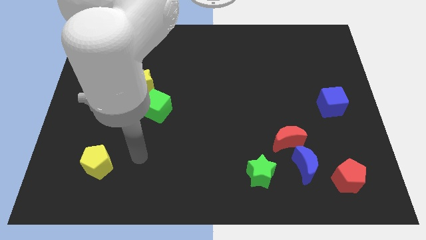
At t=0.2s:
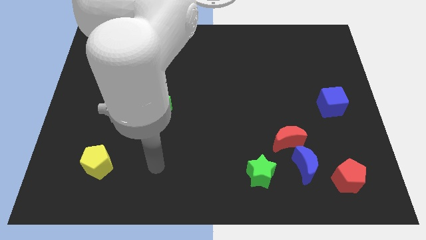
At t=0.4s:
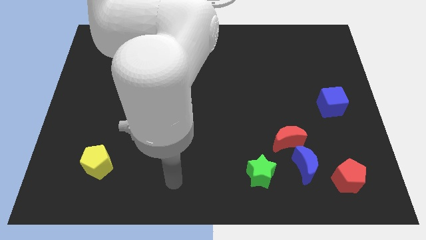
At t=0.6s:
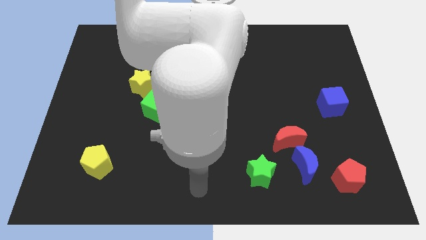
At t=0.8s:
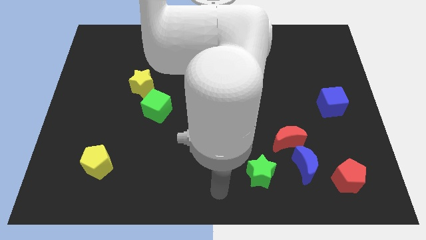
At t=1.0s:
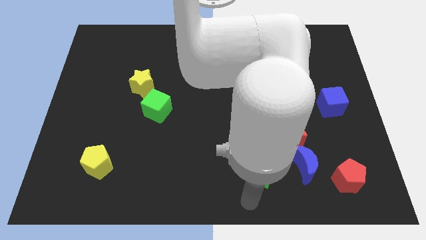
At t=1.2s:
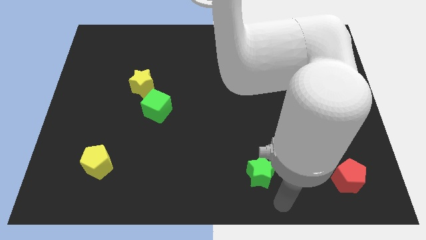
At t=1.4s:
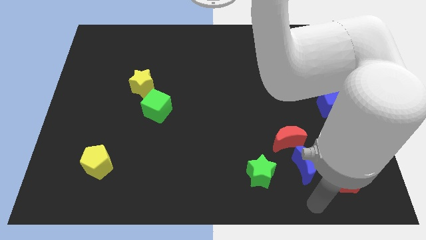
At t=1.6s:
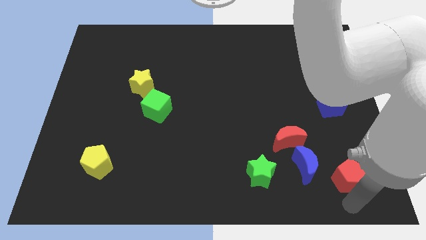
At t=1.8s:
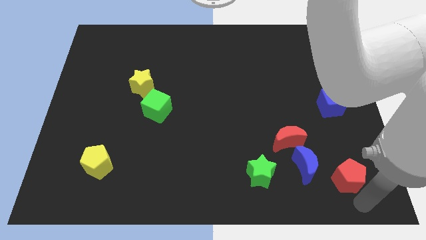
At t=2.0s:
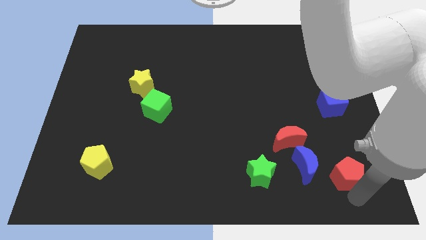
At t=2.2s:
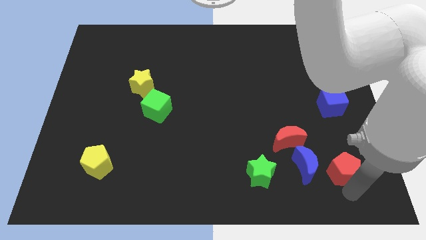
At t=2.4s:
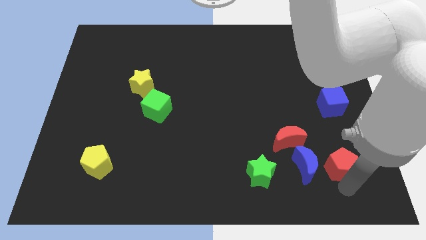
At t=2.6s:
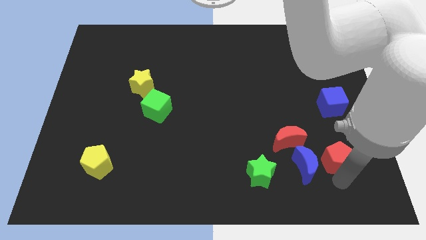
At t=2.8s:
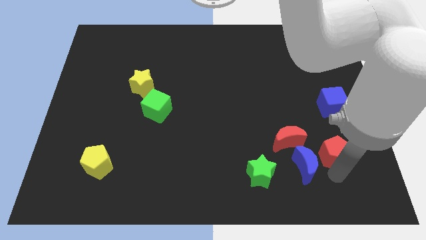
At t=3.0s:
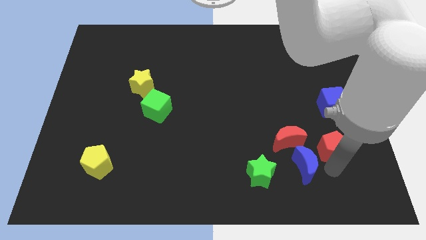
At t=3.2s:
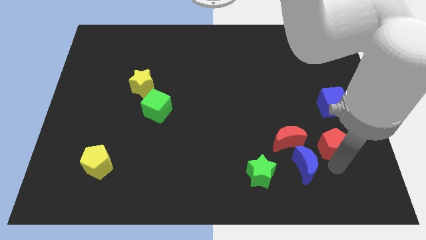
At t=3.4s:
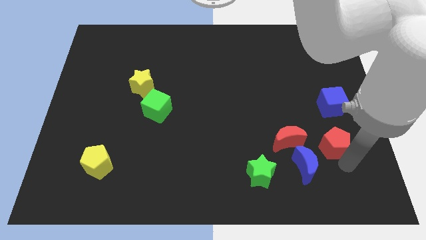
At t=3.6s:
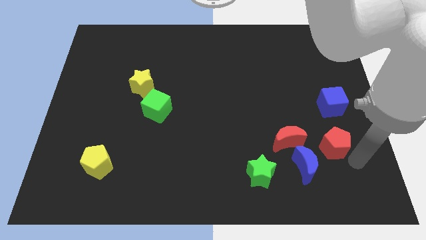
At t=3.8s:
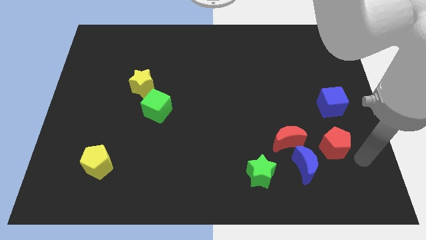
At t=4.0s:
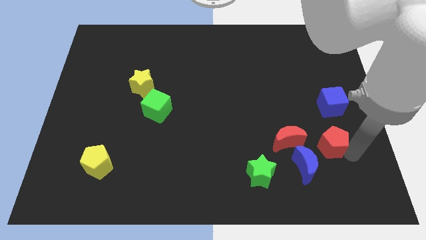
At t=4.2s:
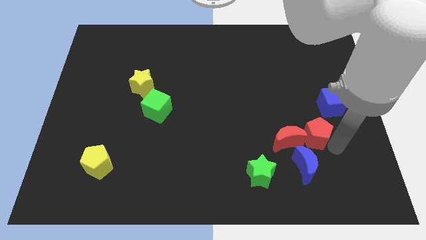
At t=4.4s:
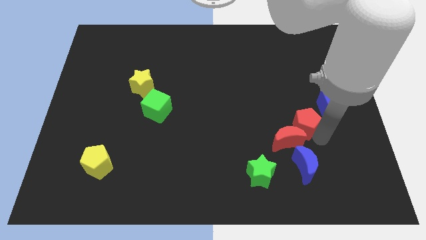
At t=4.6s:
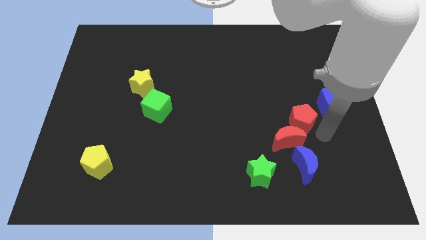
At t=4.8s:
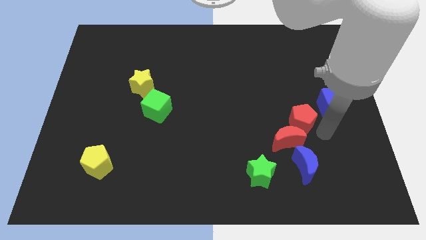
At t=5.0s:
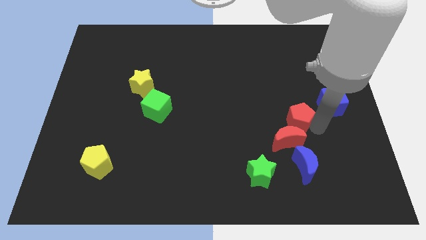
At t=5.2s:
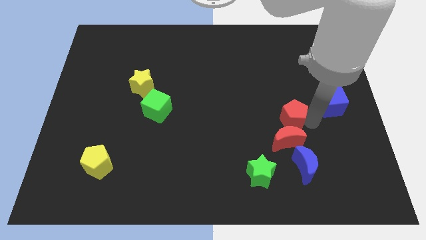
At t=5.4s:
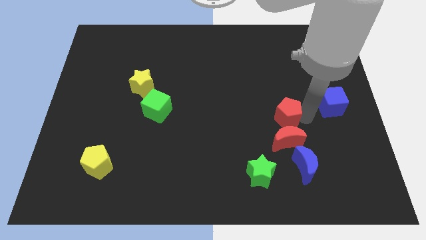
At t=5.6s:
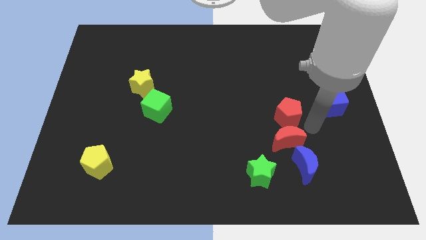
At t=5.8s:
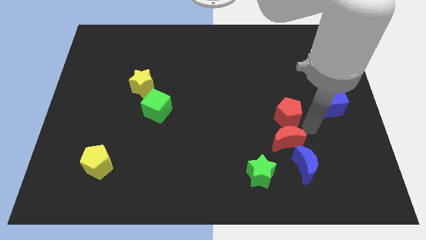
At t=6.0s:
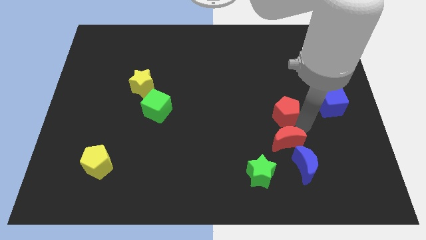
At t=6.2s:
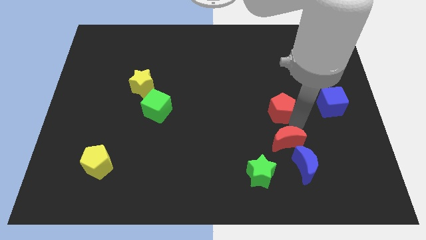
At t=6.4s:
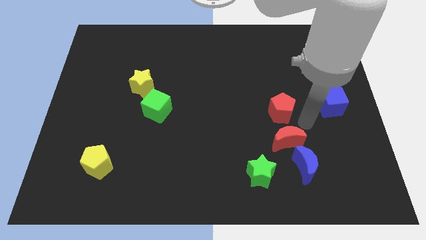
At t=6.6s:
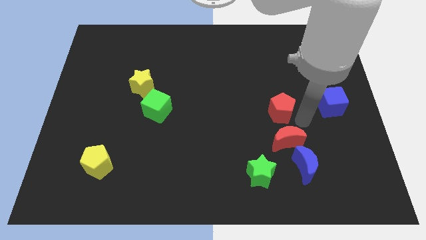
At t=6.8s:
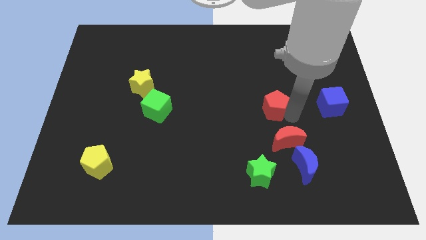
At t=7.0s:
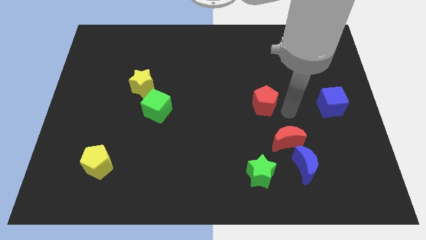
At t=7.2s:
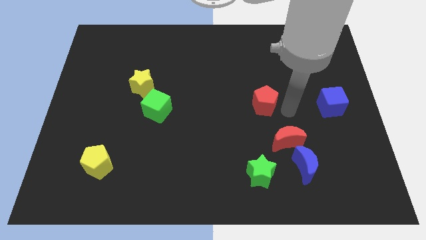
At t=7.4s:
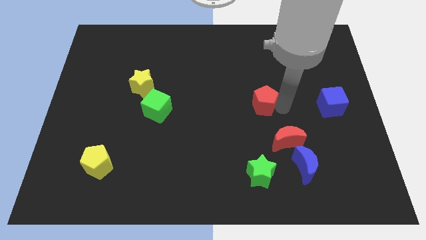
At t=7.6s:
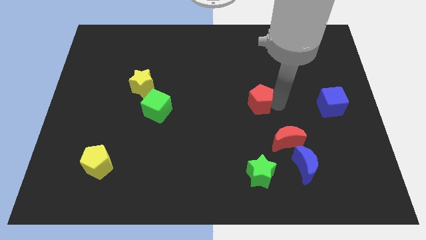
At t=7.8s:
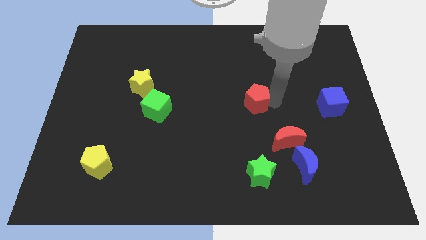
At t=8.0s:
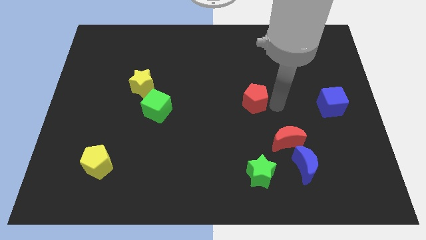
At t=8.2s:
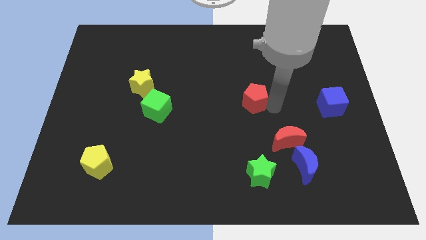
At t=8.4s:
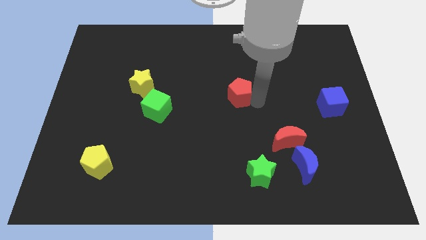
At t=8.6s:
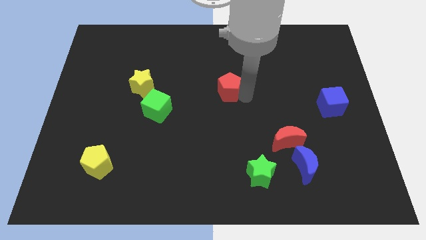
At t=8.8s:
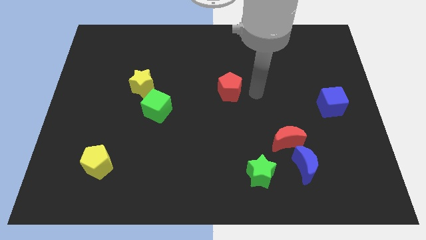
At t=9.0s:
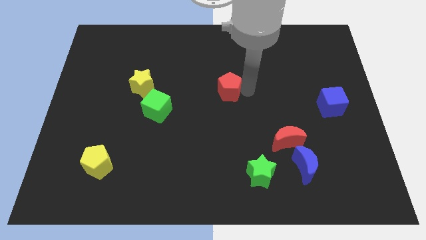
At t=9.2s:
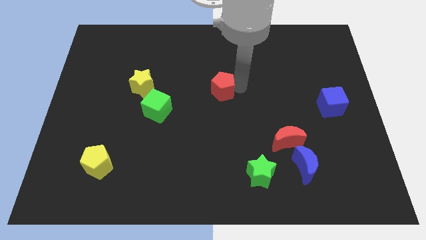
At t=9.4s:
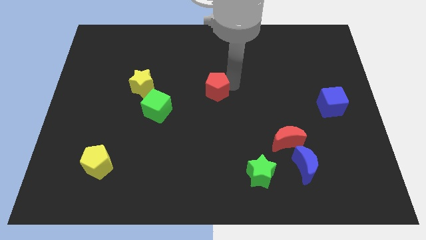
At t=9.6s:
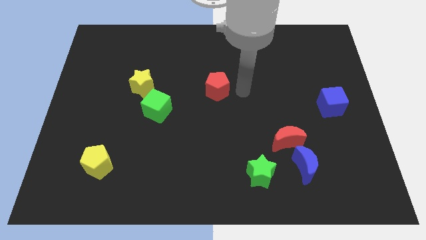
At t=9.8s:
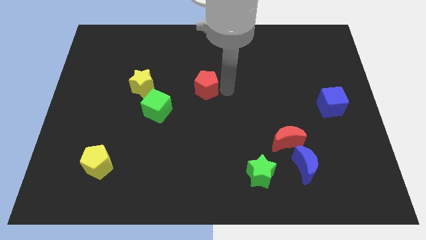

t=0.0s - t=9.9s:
put the red pentagon to the right of the yellow star

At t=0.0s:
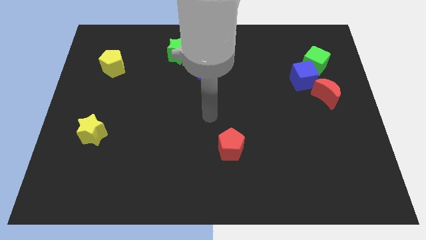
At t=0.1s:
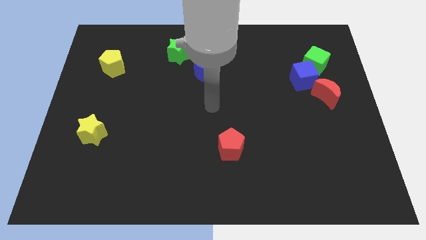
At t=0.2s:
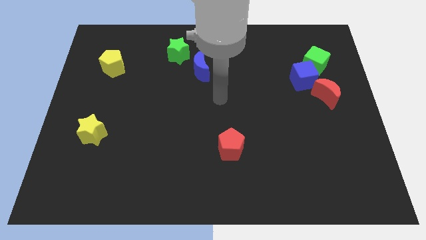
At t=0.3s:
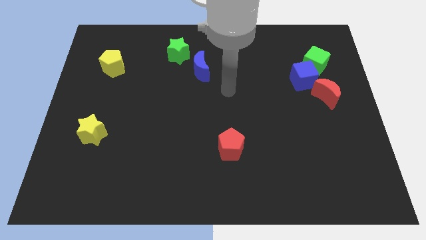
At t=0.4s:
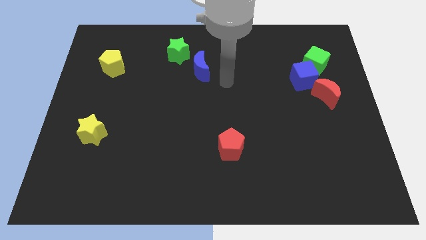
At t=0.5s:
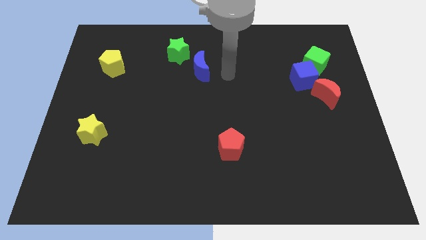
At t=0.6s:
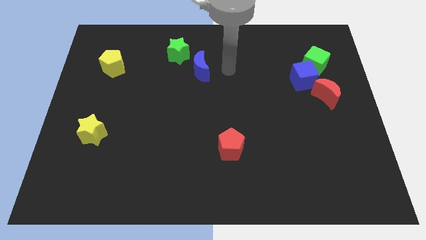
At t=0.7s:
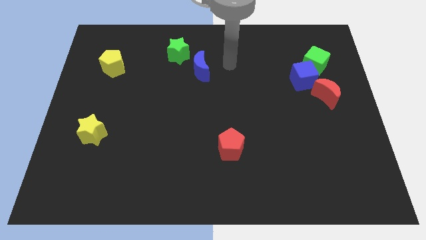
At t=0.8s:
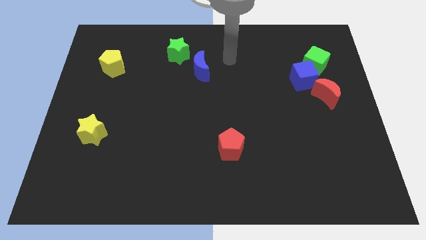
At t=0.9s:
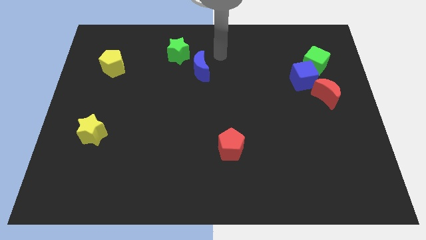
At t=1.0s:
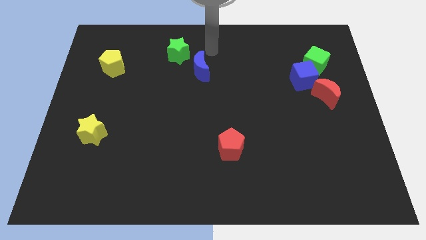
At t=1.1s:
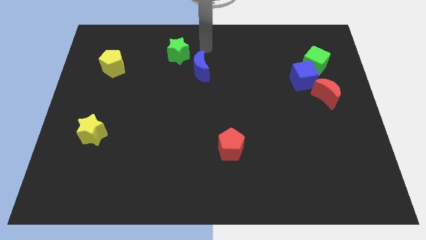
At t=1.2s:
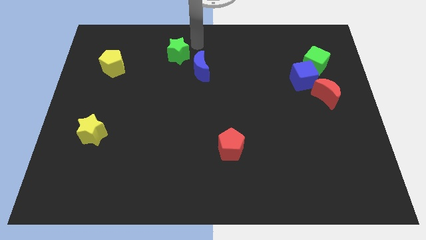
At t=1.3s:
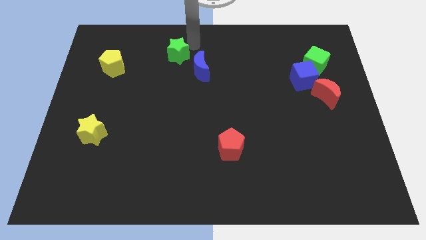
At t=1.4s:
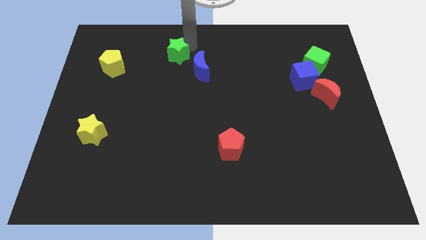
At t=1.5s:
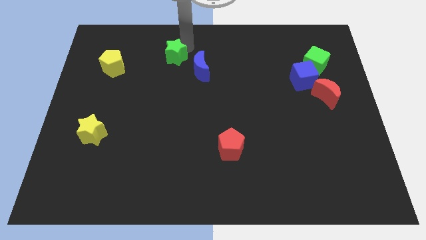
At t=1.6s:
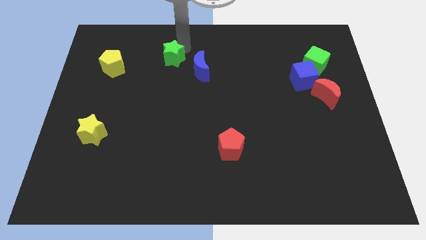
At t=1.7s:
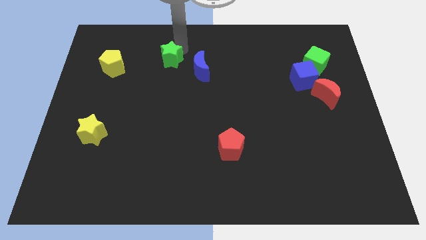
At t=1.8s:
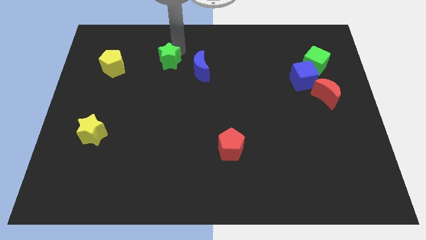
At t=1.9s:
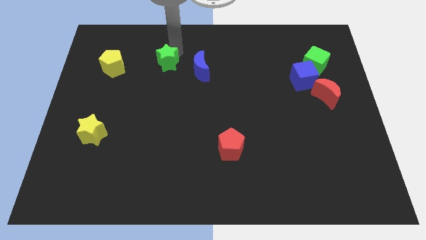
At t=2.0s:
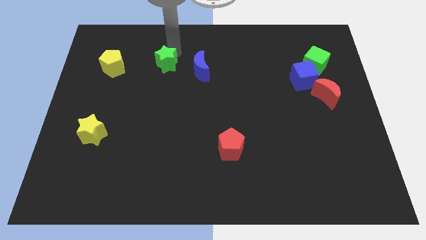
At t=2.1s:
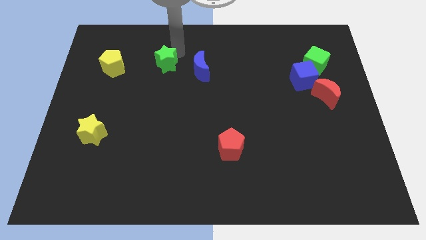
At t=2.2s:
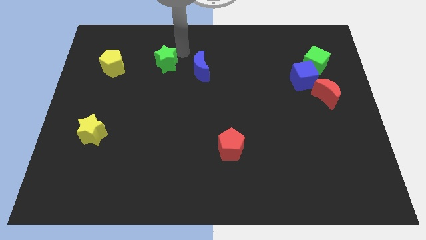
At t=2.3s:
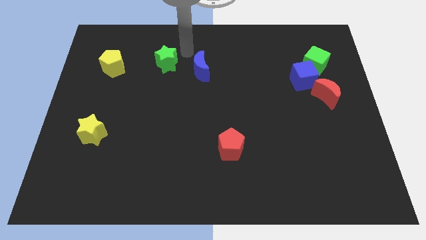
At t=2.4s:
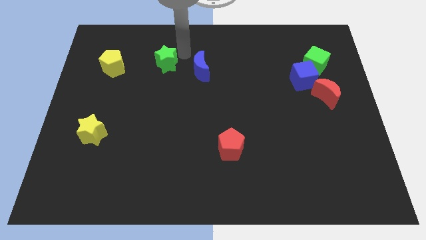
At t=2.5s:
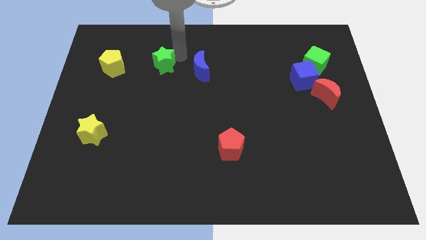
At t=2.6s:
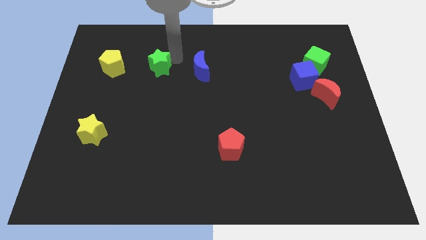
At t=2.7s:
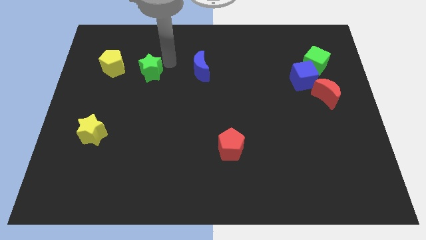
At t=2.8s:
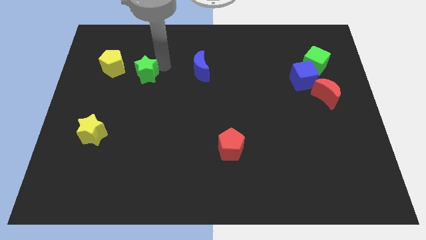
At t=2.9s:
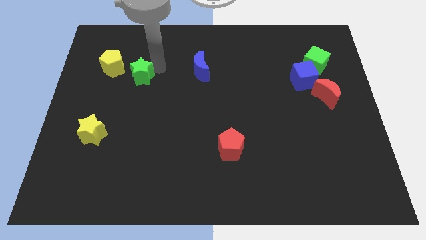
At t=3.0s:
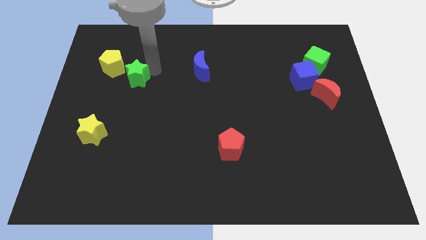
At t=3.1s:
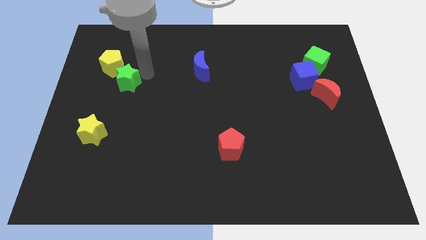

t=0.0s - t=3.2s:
move the green star below the yellow pentagon
